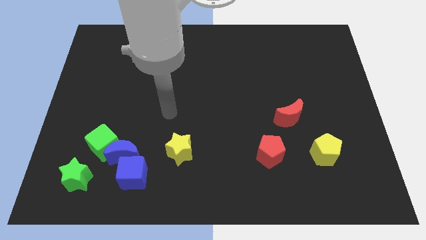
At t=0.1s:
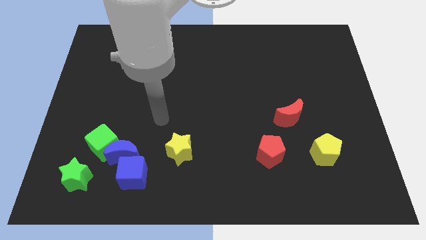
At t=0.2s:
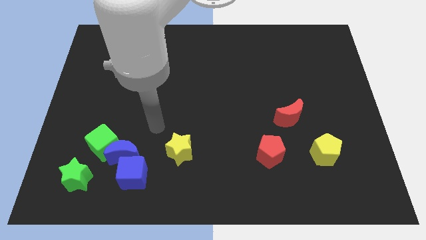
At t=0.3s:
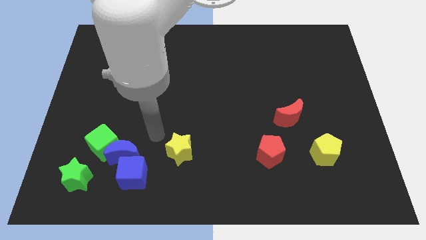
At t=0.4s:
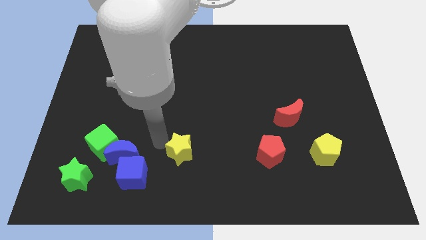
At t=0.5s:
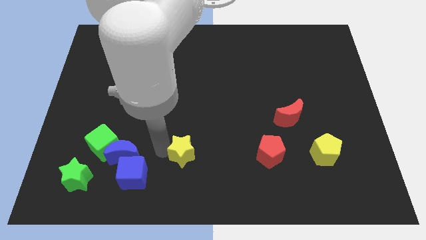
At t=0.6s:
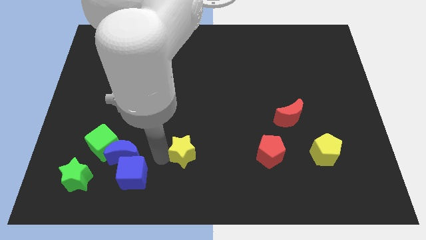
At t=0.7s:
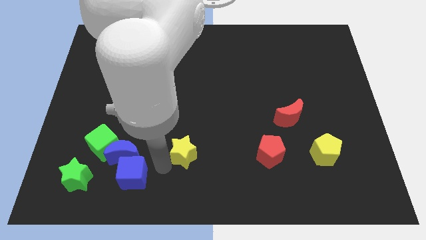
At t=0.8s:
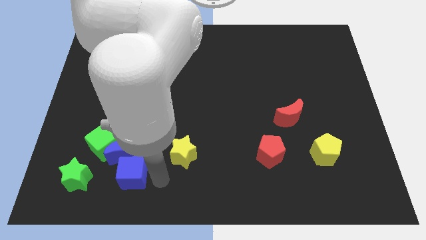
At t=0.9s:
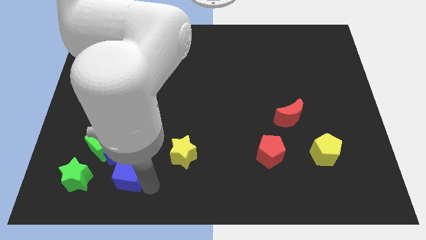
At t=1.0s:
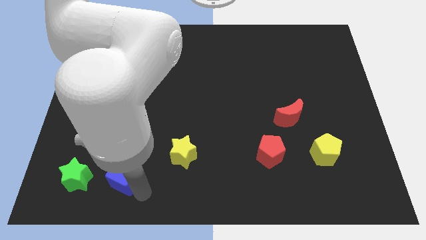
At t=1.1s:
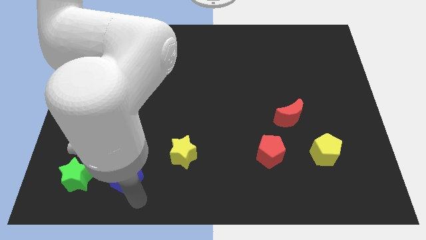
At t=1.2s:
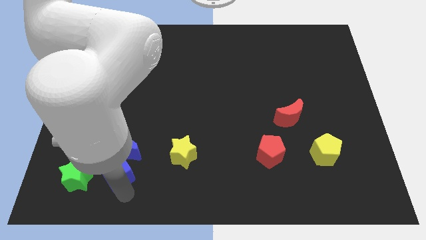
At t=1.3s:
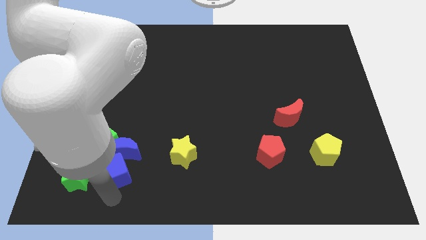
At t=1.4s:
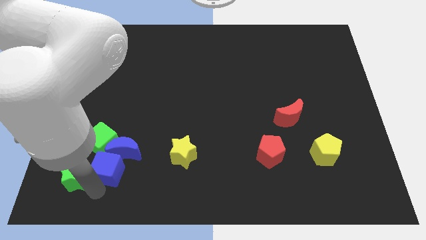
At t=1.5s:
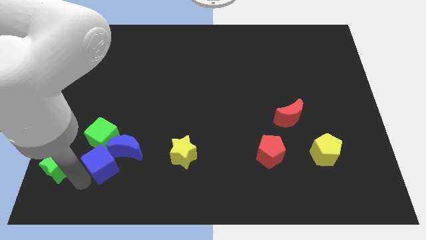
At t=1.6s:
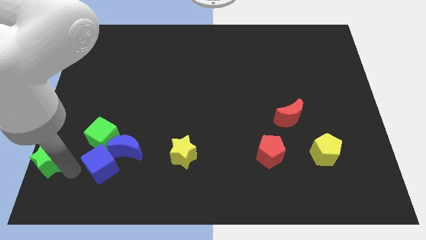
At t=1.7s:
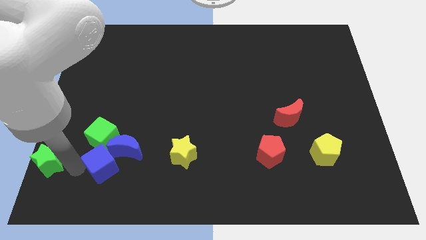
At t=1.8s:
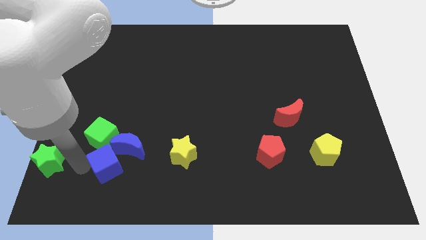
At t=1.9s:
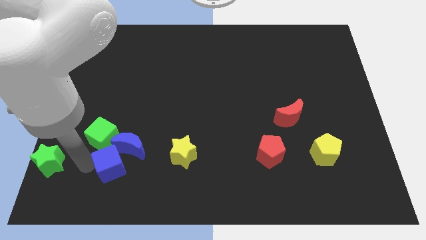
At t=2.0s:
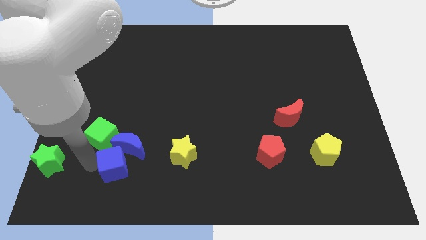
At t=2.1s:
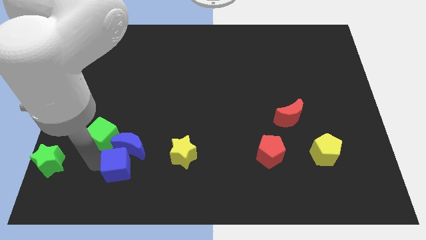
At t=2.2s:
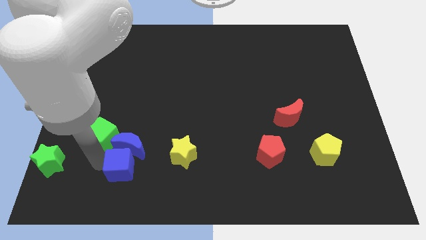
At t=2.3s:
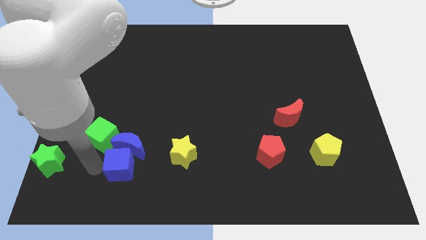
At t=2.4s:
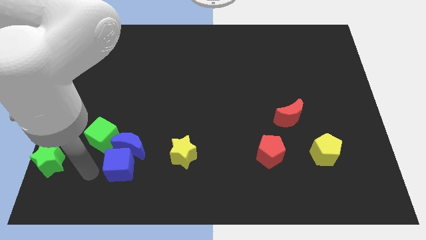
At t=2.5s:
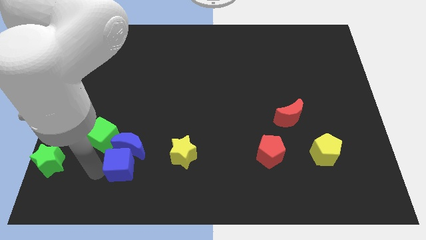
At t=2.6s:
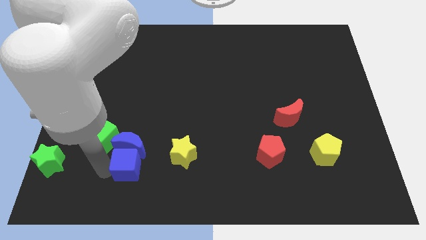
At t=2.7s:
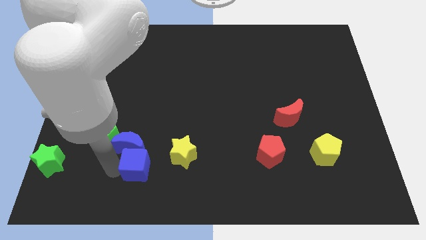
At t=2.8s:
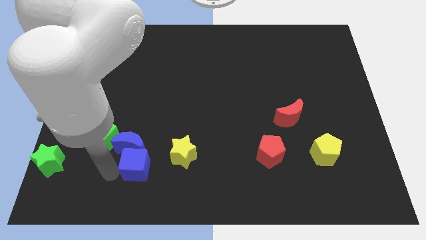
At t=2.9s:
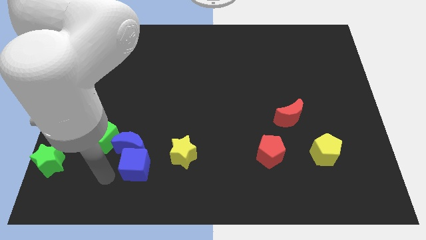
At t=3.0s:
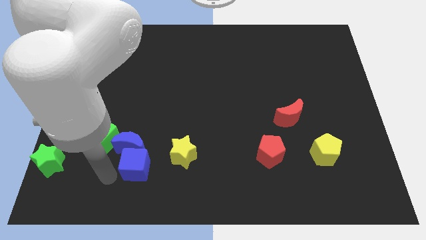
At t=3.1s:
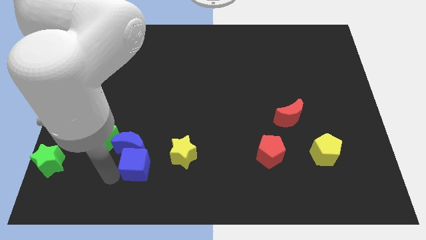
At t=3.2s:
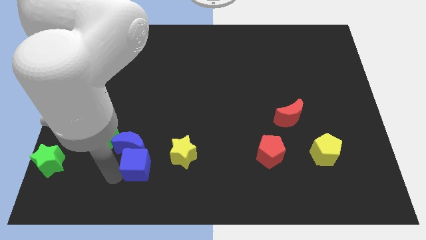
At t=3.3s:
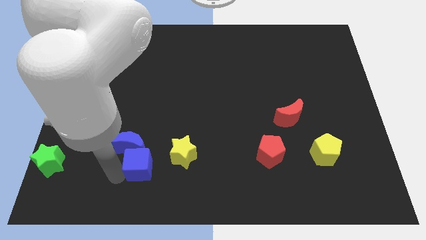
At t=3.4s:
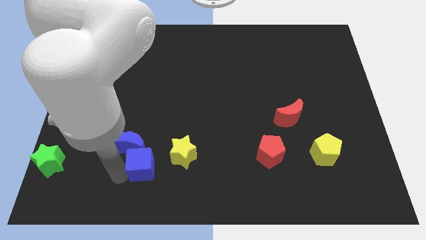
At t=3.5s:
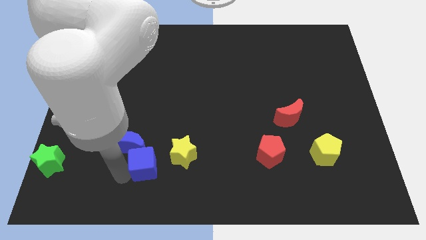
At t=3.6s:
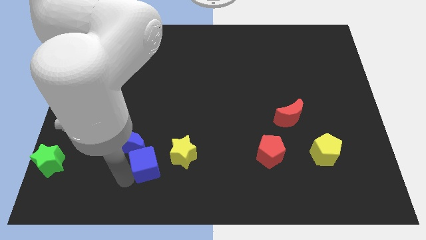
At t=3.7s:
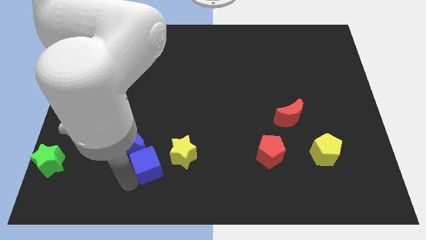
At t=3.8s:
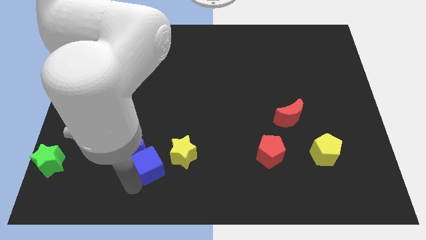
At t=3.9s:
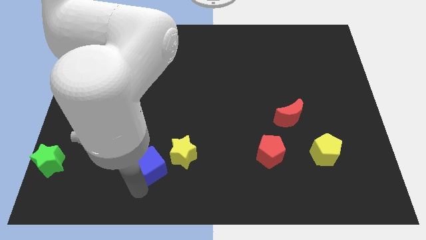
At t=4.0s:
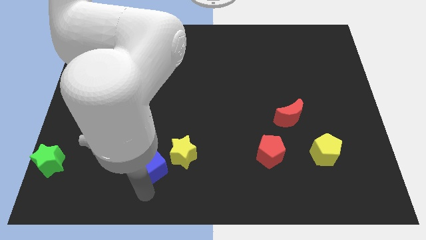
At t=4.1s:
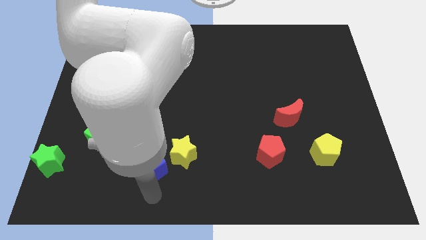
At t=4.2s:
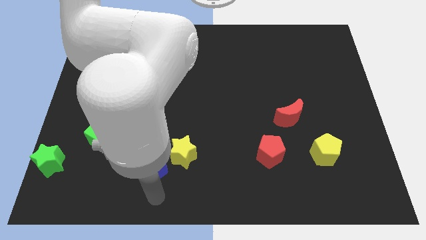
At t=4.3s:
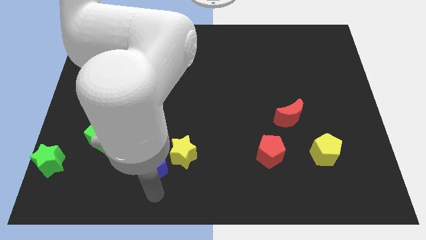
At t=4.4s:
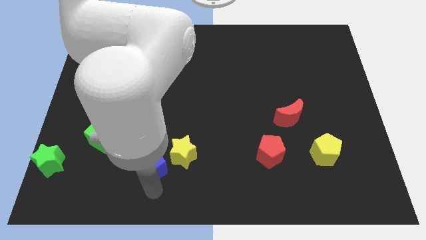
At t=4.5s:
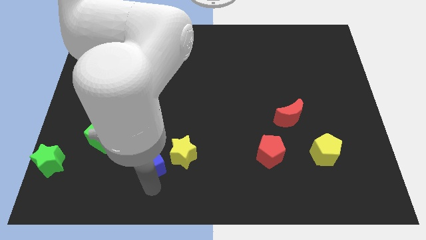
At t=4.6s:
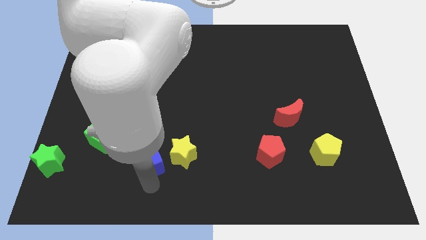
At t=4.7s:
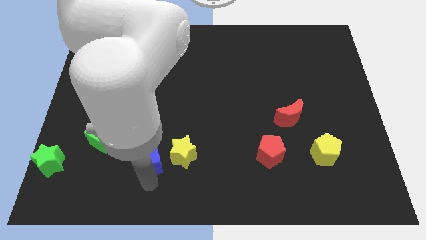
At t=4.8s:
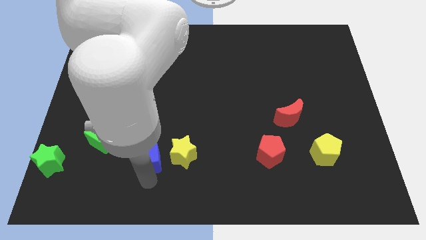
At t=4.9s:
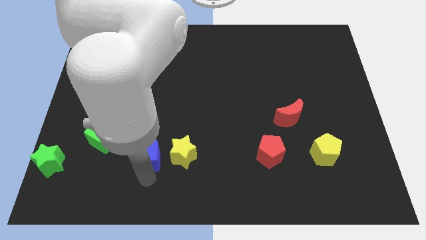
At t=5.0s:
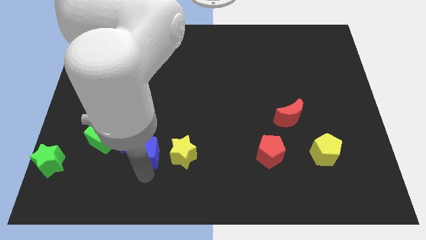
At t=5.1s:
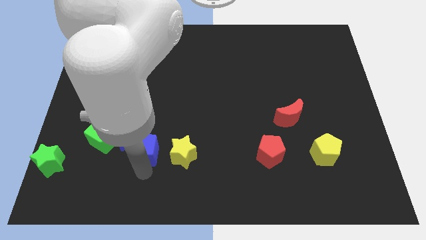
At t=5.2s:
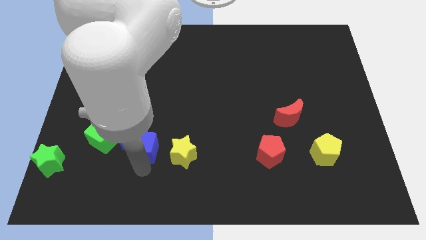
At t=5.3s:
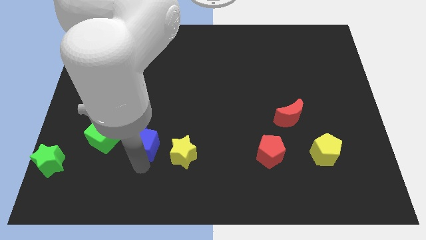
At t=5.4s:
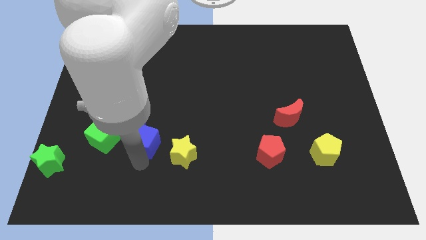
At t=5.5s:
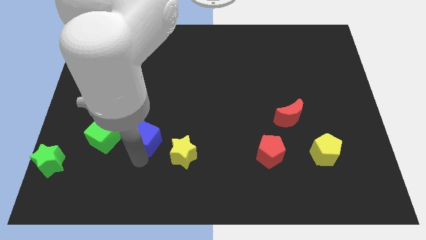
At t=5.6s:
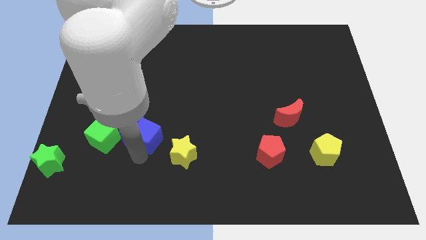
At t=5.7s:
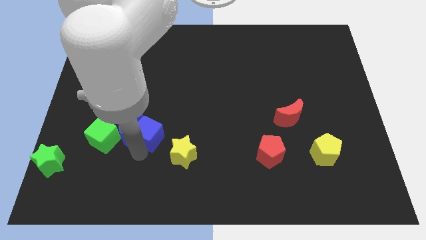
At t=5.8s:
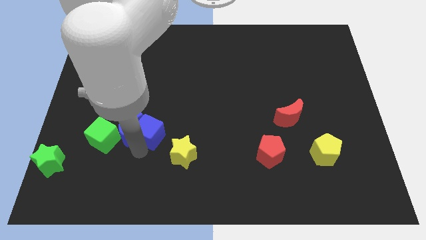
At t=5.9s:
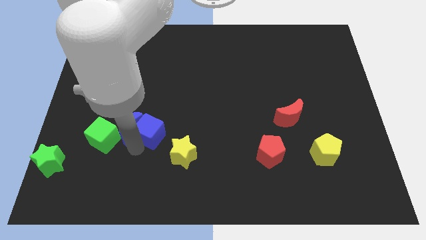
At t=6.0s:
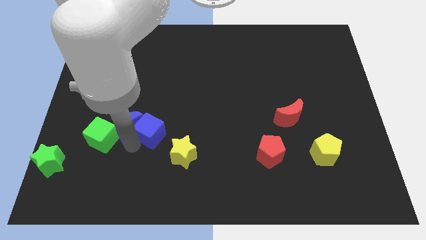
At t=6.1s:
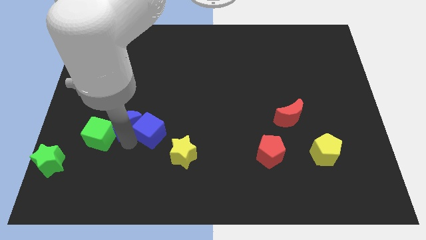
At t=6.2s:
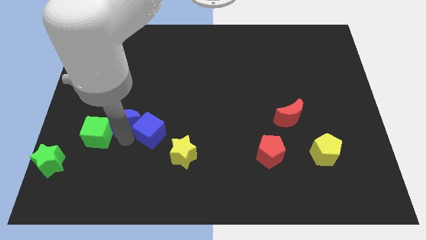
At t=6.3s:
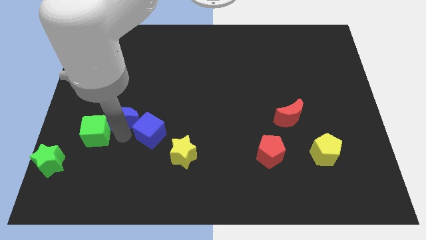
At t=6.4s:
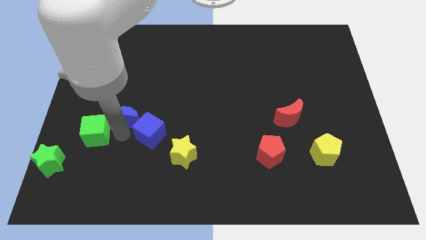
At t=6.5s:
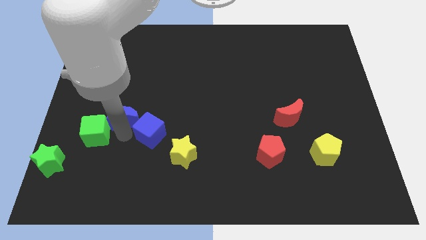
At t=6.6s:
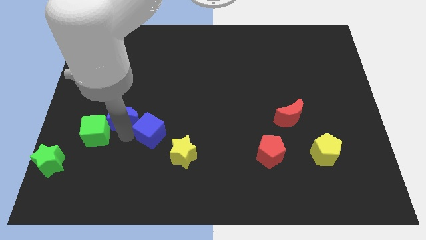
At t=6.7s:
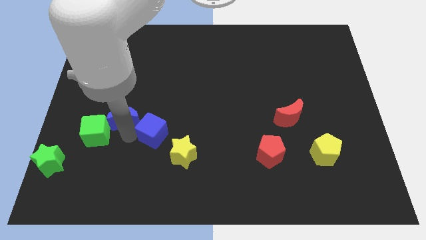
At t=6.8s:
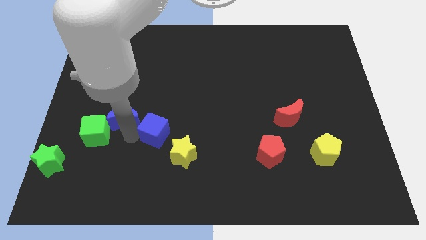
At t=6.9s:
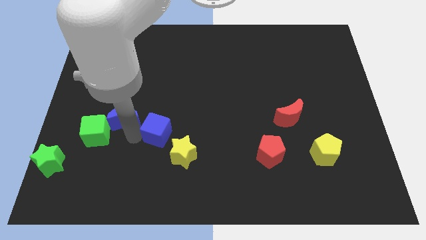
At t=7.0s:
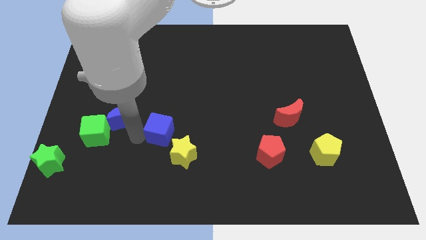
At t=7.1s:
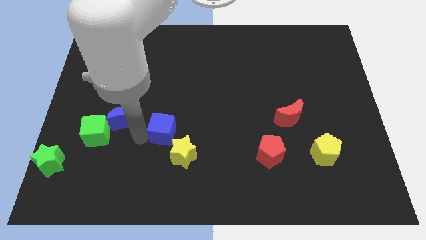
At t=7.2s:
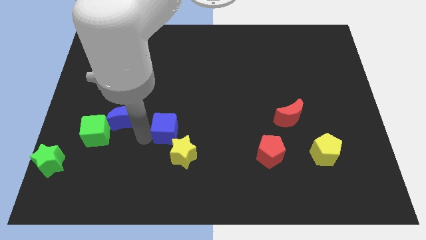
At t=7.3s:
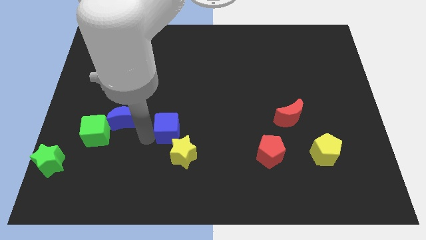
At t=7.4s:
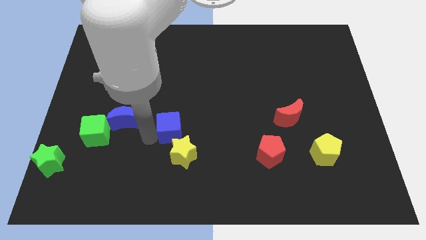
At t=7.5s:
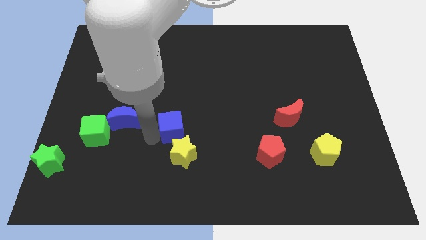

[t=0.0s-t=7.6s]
put the blue cube to the middle

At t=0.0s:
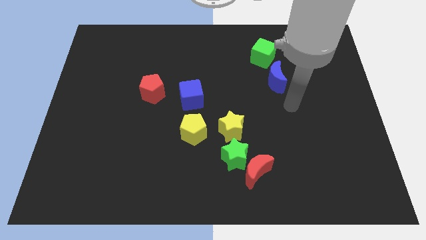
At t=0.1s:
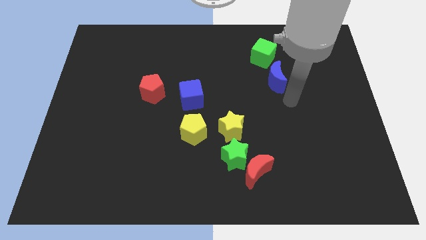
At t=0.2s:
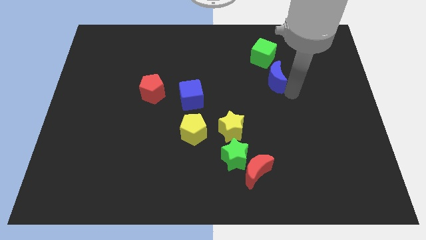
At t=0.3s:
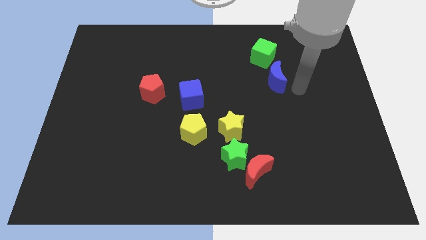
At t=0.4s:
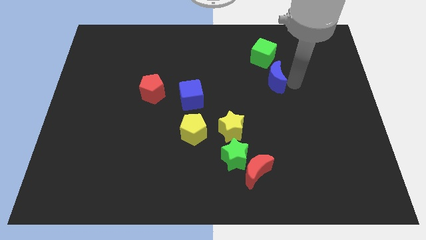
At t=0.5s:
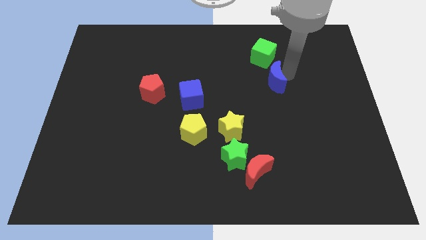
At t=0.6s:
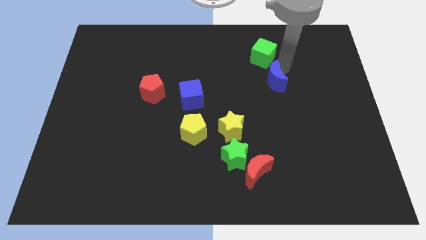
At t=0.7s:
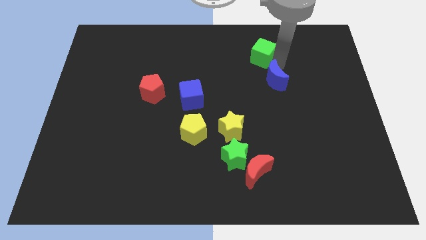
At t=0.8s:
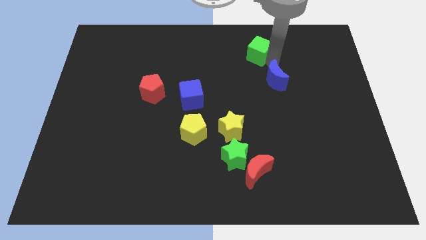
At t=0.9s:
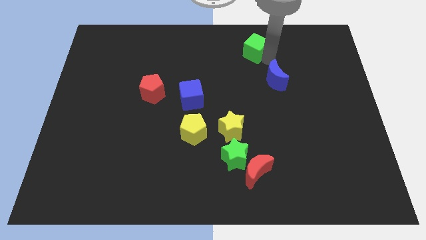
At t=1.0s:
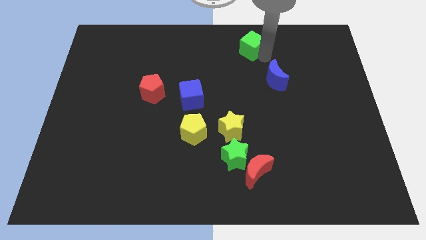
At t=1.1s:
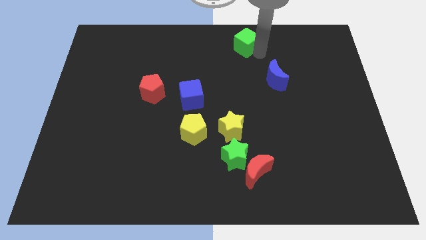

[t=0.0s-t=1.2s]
put the green cube to the top side
